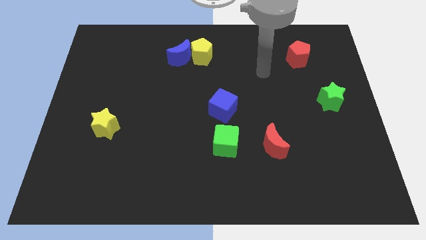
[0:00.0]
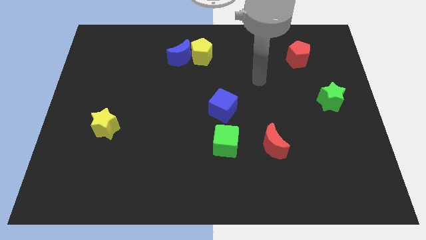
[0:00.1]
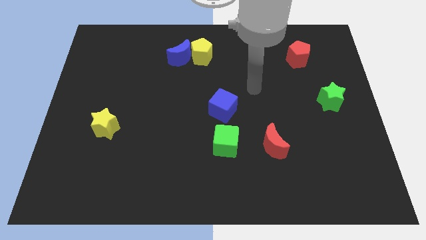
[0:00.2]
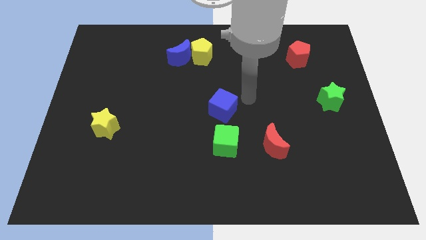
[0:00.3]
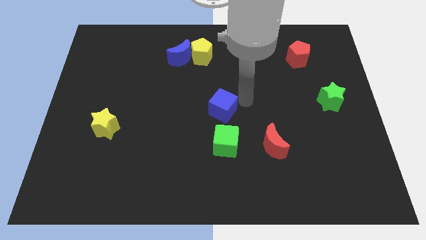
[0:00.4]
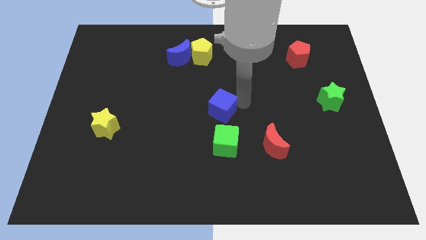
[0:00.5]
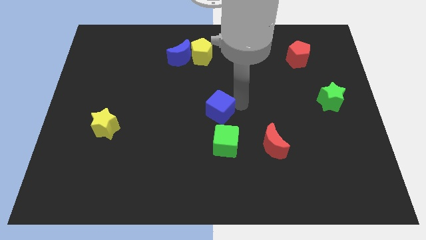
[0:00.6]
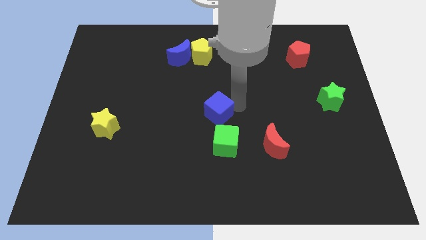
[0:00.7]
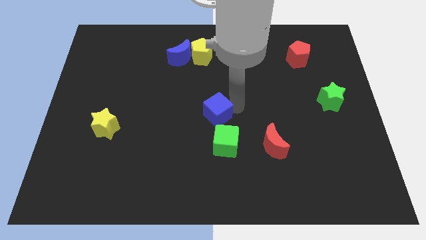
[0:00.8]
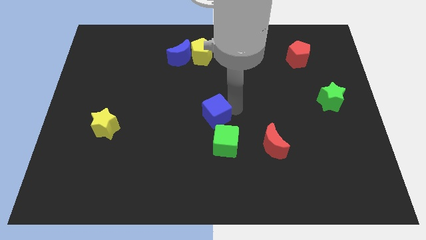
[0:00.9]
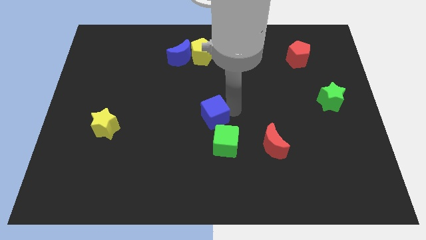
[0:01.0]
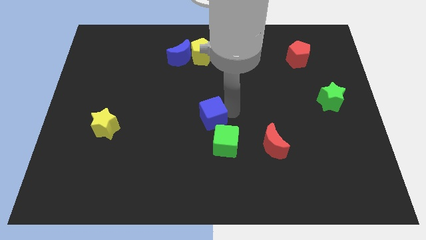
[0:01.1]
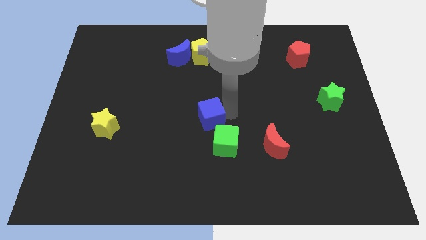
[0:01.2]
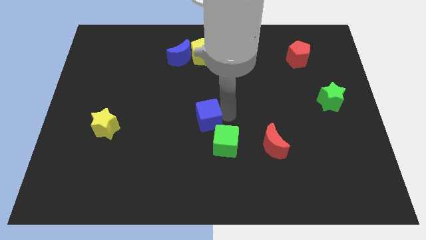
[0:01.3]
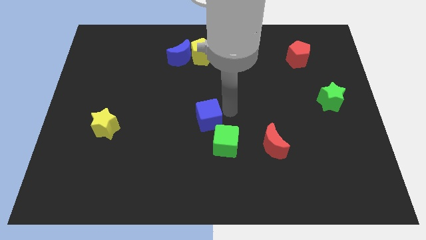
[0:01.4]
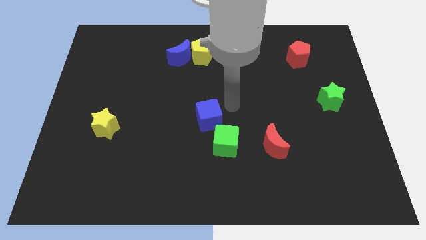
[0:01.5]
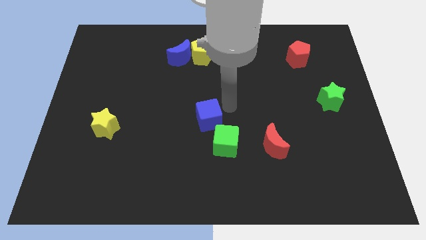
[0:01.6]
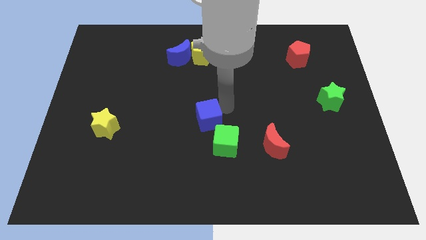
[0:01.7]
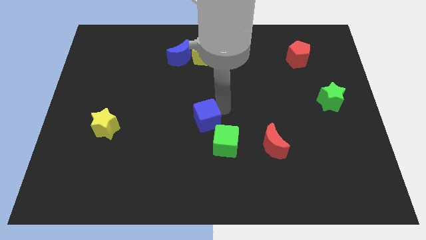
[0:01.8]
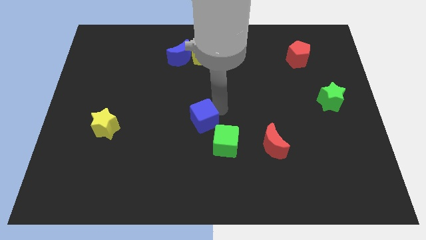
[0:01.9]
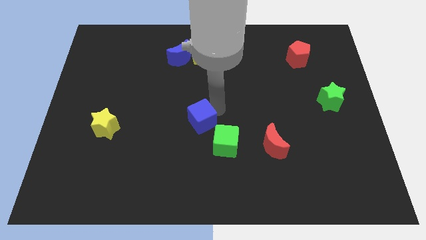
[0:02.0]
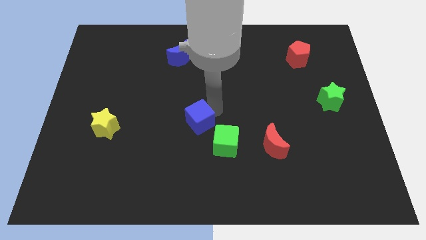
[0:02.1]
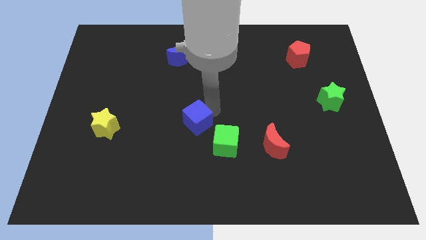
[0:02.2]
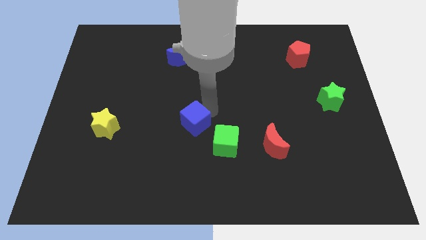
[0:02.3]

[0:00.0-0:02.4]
slightly slide the blue cube diagonally downwards and to the left

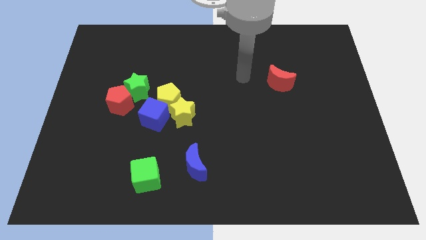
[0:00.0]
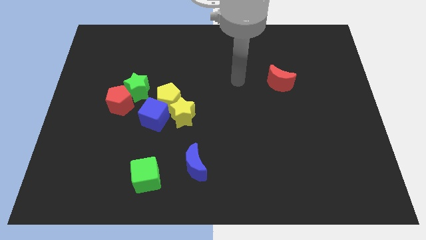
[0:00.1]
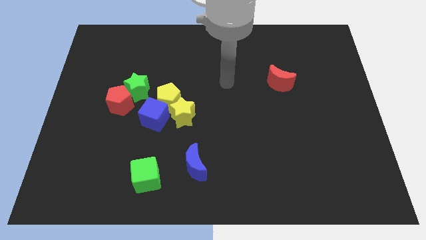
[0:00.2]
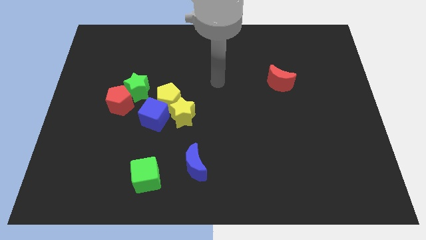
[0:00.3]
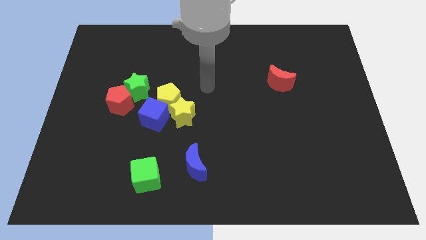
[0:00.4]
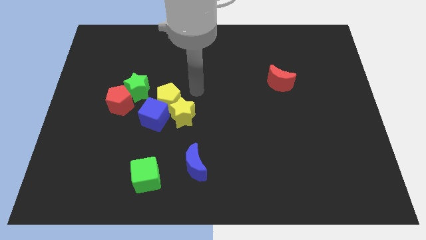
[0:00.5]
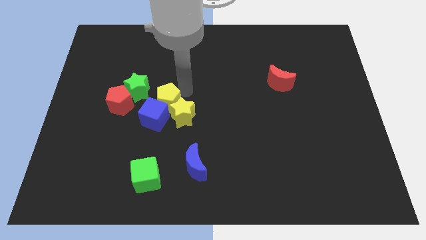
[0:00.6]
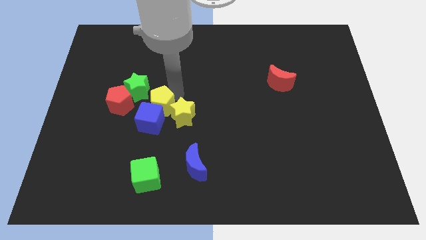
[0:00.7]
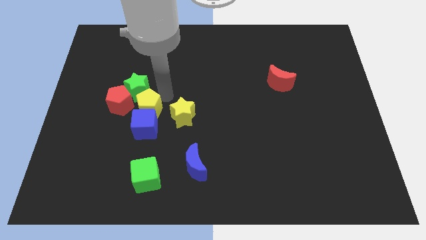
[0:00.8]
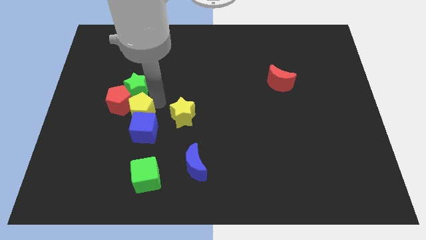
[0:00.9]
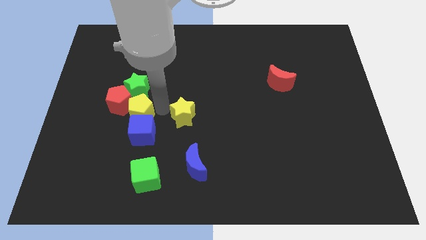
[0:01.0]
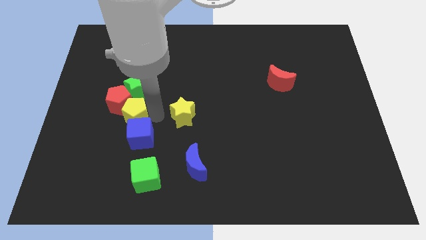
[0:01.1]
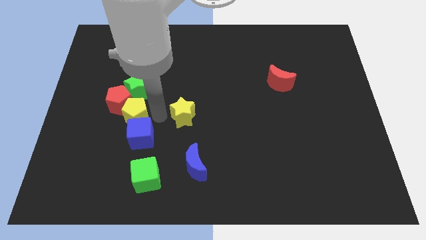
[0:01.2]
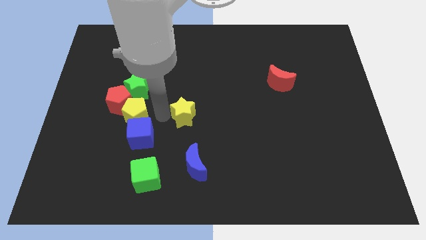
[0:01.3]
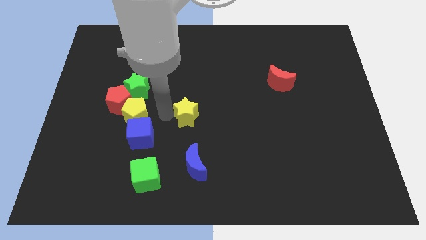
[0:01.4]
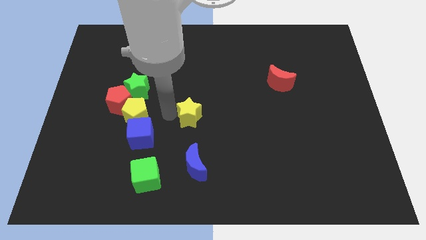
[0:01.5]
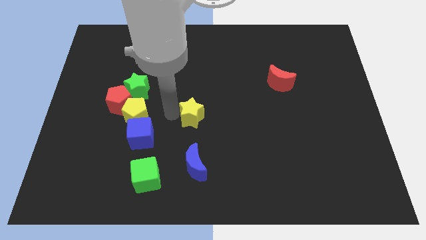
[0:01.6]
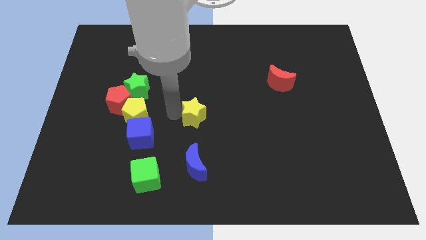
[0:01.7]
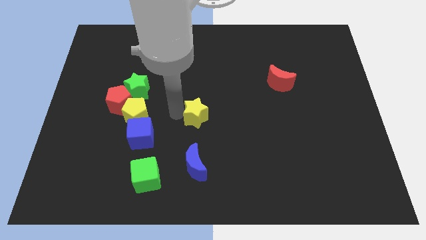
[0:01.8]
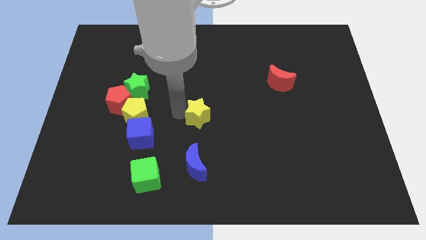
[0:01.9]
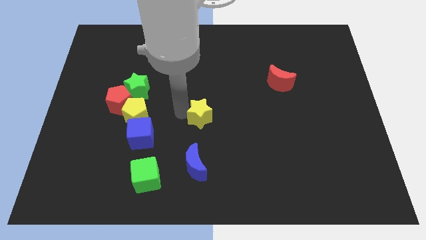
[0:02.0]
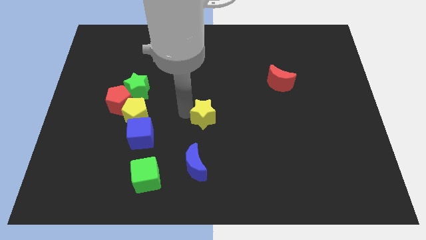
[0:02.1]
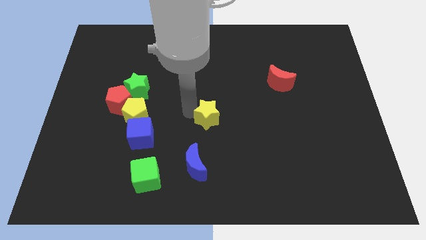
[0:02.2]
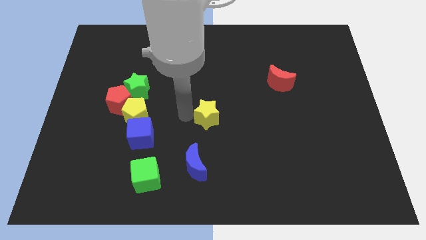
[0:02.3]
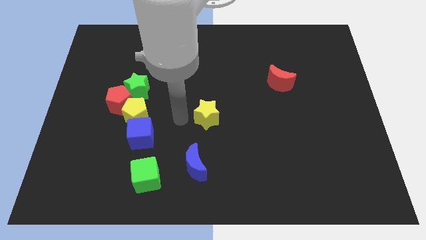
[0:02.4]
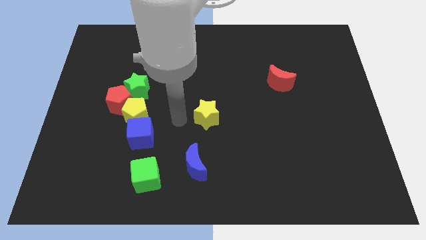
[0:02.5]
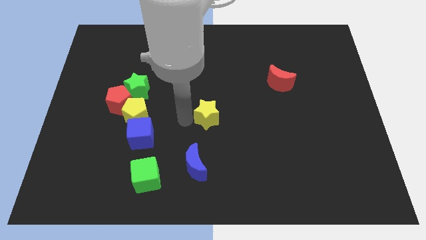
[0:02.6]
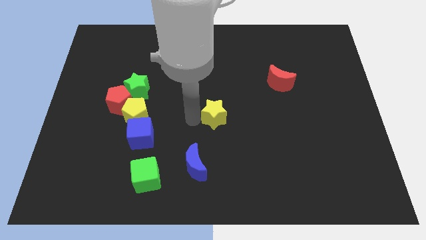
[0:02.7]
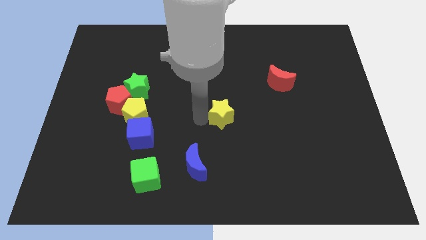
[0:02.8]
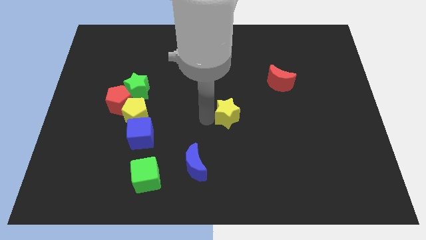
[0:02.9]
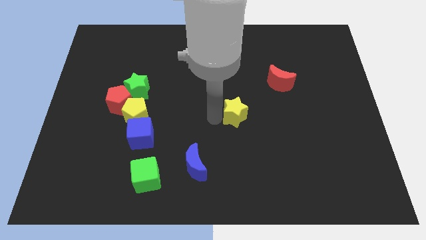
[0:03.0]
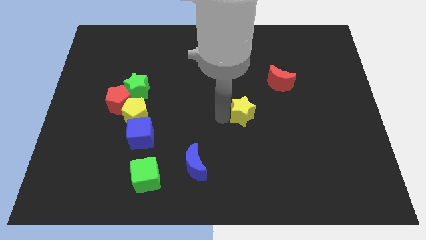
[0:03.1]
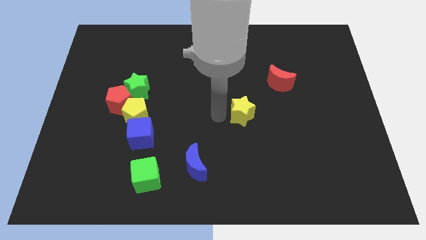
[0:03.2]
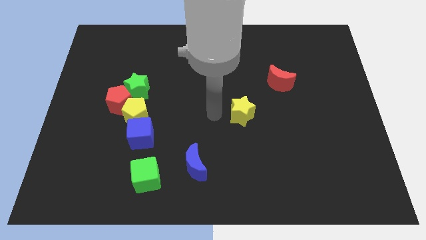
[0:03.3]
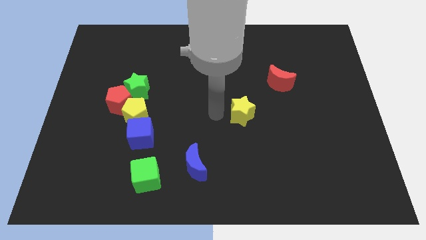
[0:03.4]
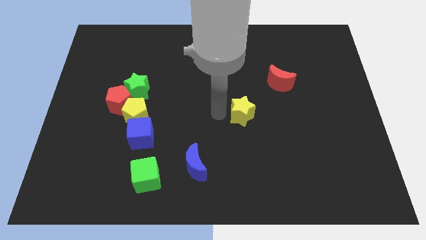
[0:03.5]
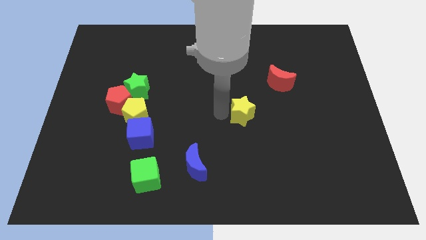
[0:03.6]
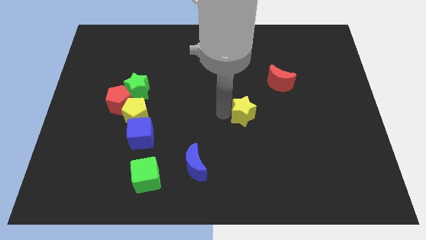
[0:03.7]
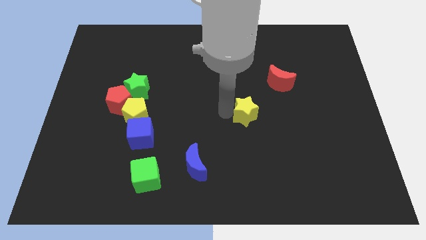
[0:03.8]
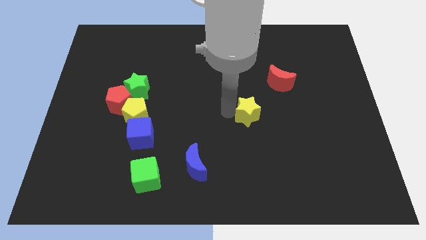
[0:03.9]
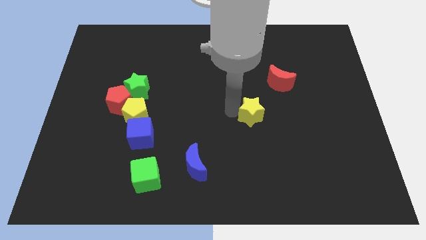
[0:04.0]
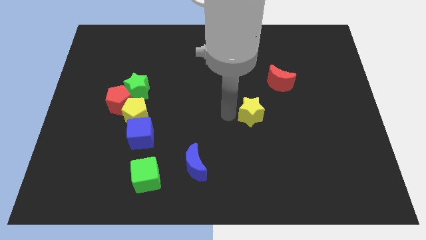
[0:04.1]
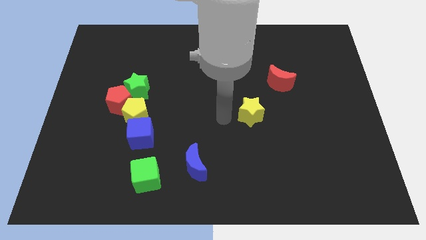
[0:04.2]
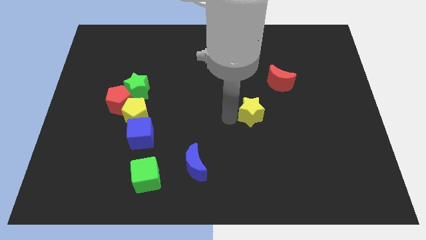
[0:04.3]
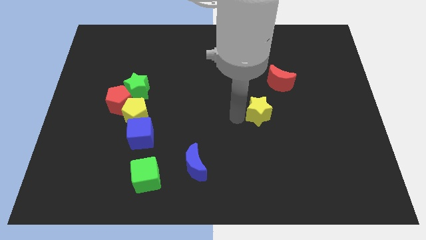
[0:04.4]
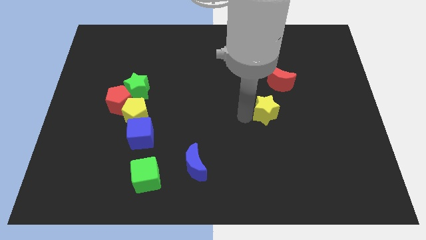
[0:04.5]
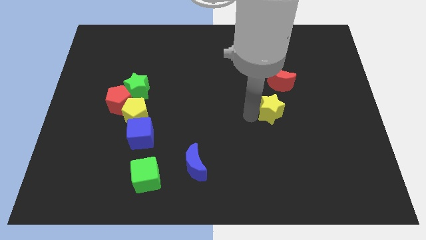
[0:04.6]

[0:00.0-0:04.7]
slide the yellow star right

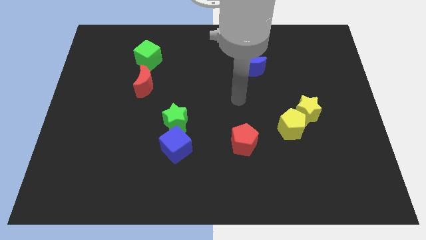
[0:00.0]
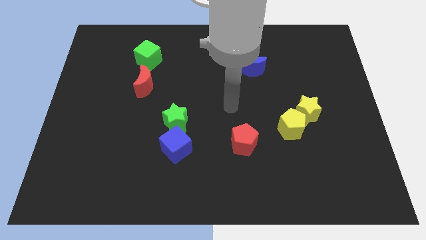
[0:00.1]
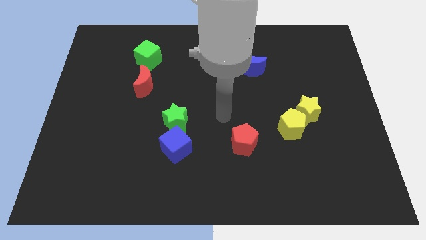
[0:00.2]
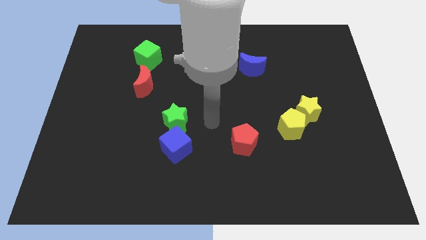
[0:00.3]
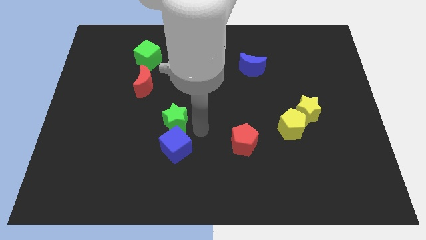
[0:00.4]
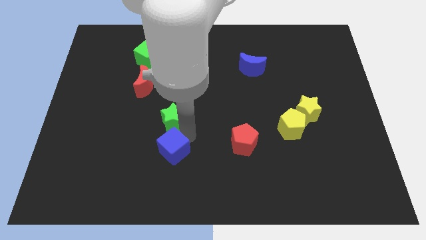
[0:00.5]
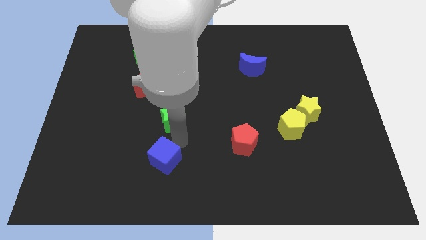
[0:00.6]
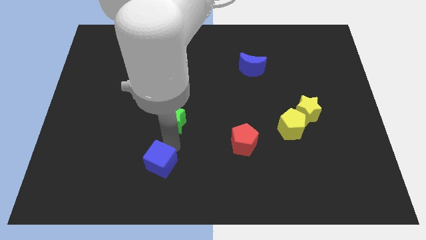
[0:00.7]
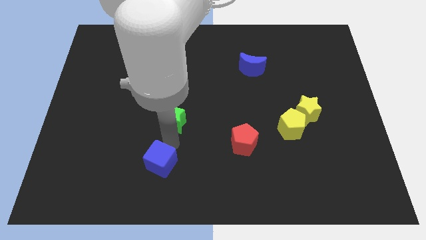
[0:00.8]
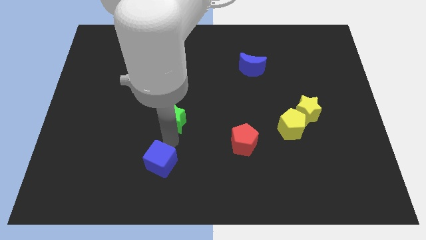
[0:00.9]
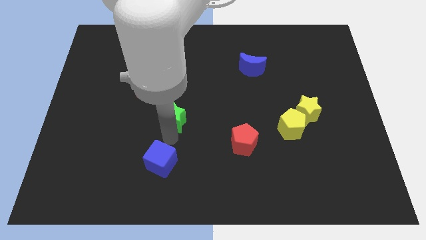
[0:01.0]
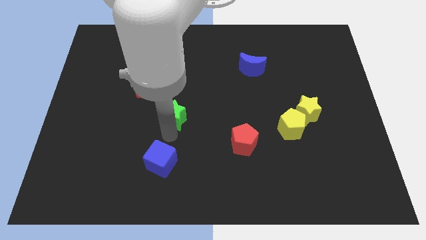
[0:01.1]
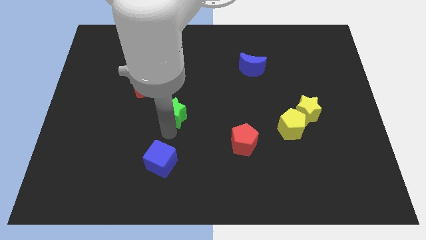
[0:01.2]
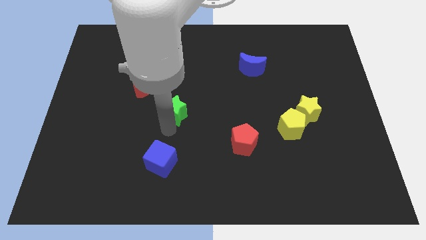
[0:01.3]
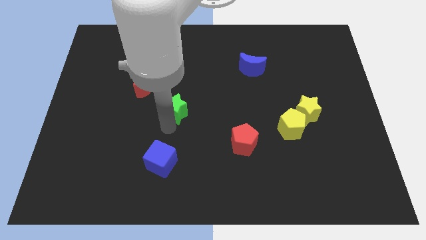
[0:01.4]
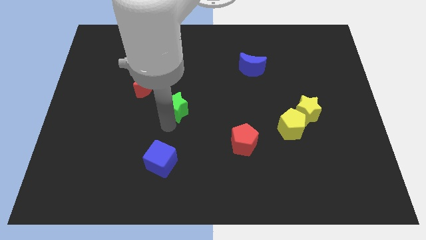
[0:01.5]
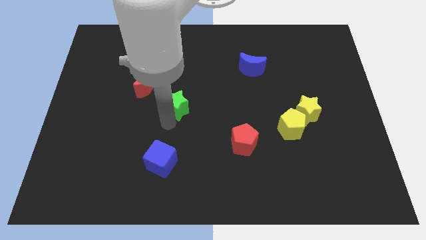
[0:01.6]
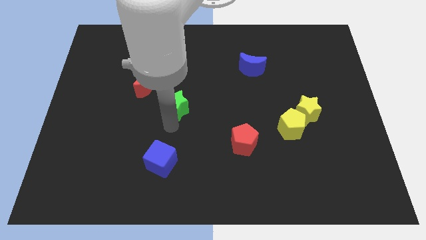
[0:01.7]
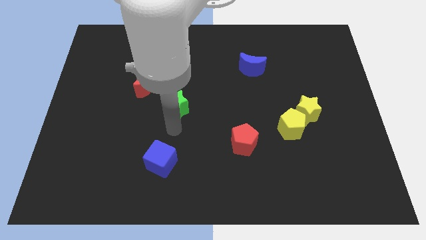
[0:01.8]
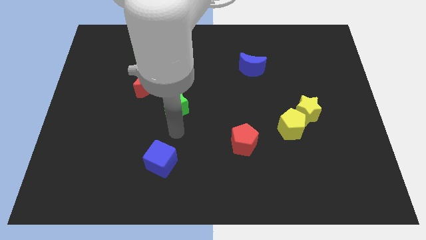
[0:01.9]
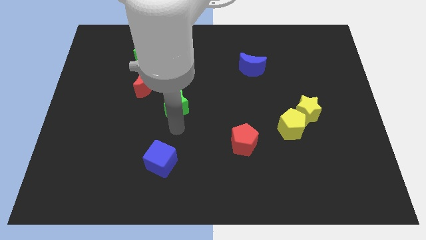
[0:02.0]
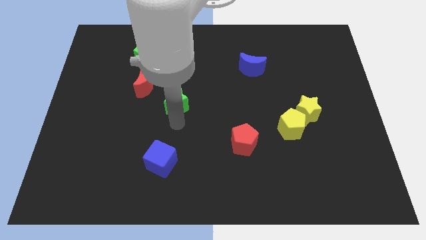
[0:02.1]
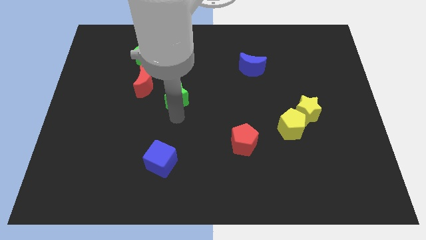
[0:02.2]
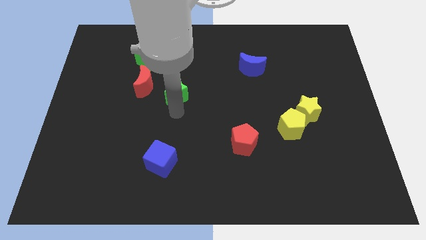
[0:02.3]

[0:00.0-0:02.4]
slightly push the green star upwards
